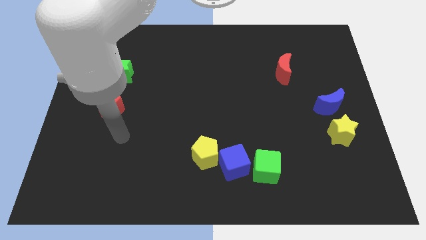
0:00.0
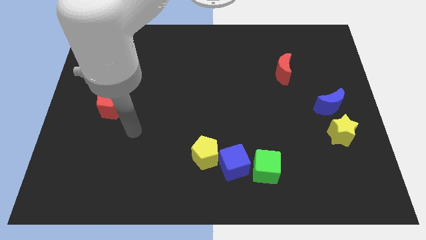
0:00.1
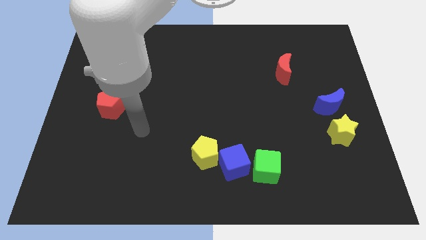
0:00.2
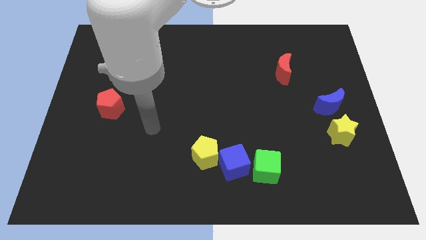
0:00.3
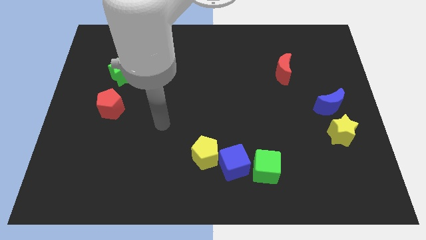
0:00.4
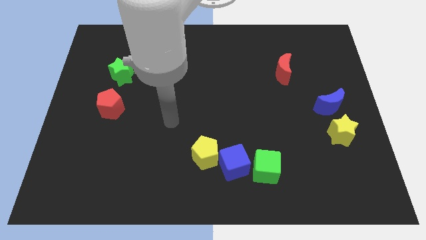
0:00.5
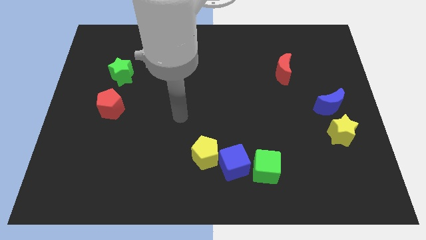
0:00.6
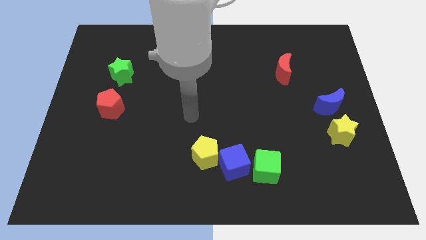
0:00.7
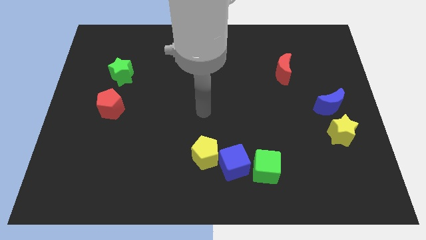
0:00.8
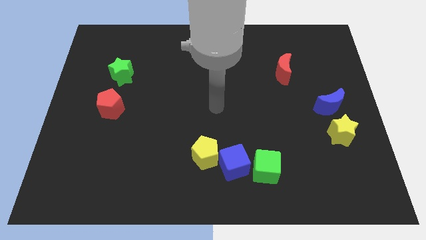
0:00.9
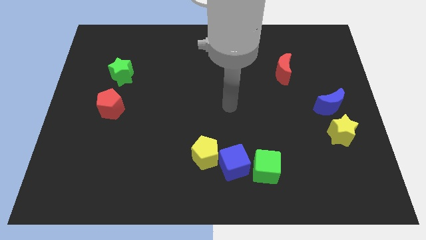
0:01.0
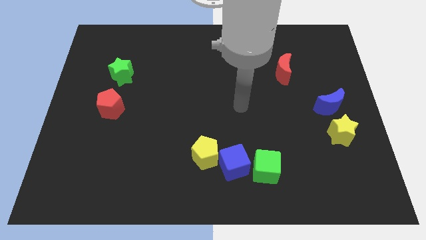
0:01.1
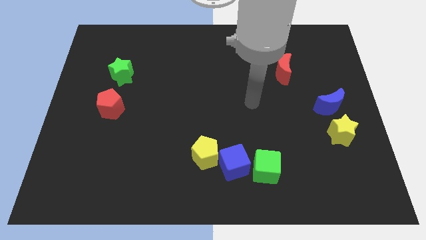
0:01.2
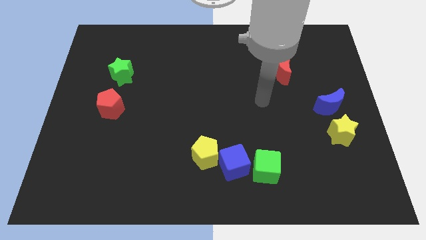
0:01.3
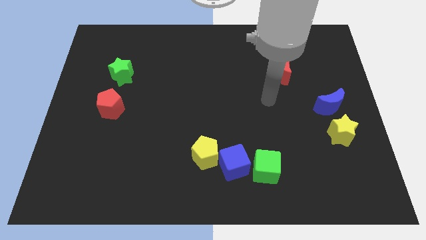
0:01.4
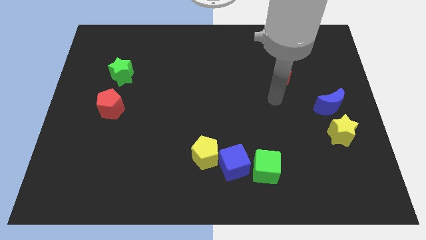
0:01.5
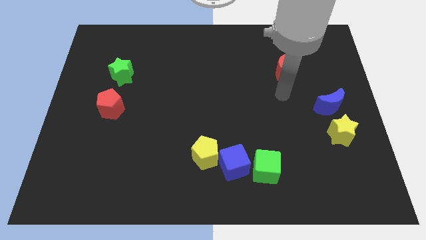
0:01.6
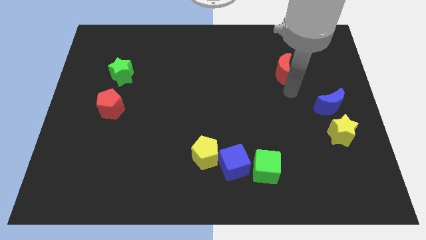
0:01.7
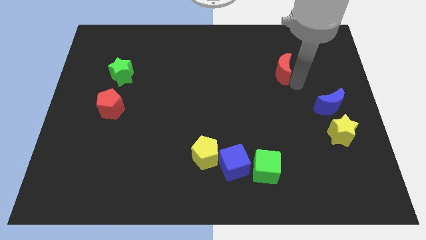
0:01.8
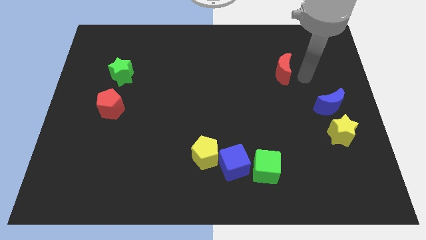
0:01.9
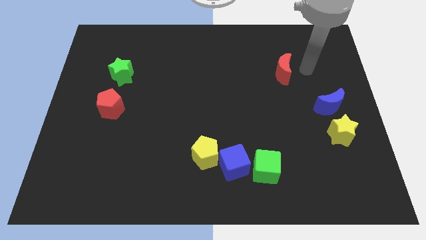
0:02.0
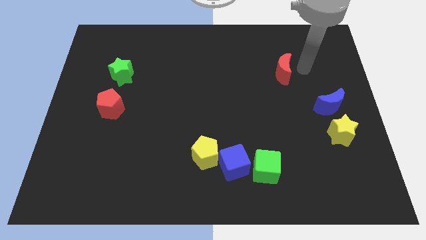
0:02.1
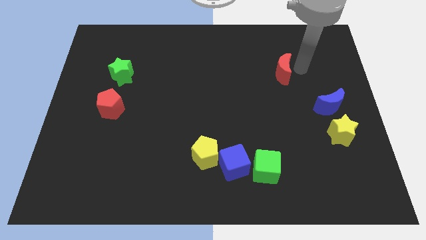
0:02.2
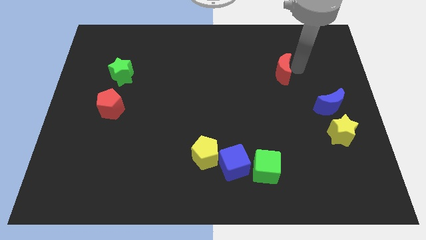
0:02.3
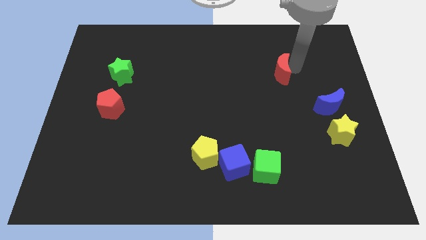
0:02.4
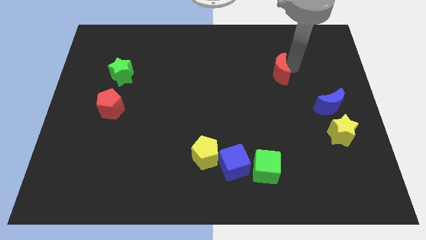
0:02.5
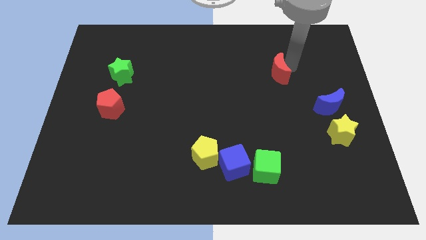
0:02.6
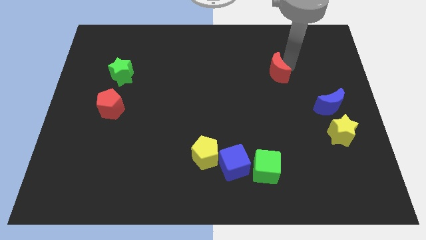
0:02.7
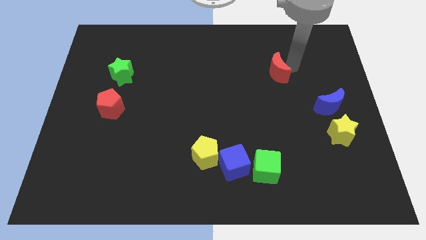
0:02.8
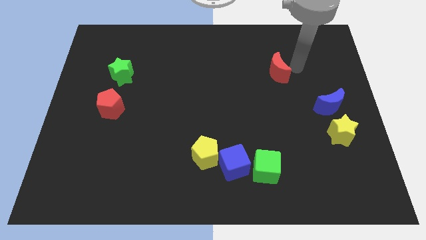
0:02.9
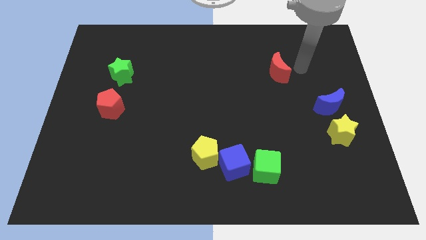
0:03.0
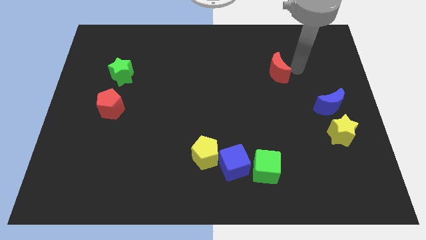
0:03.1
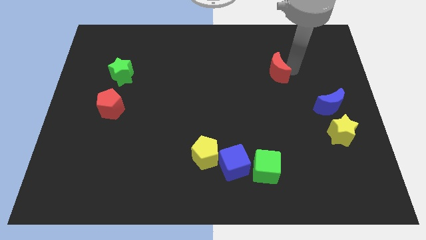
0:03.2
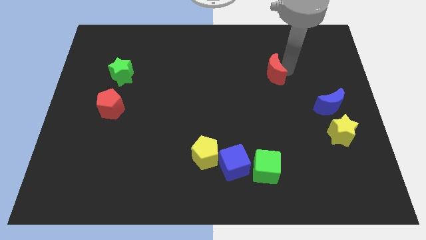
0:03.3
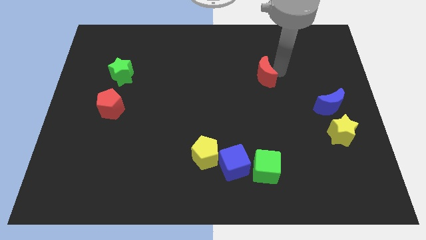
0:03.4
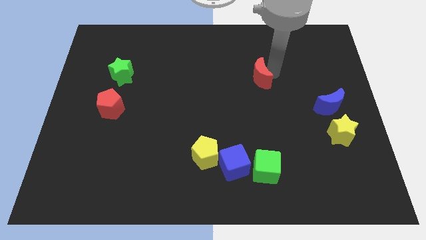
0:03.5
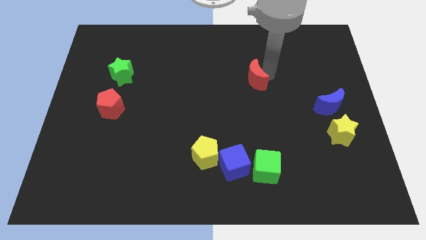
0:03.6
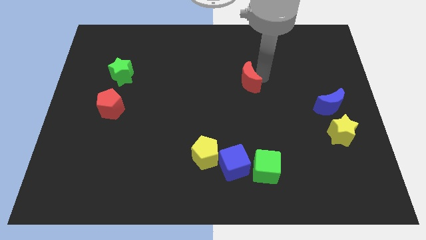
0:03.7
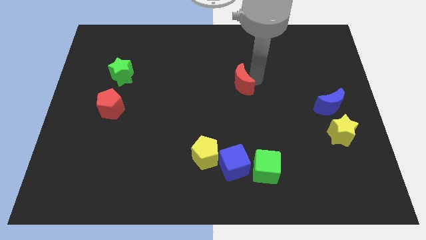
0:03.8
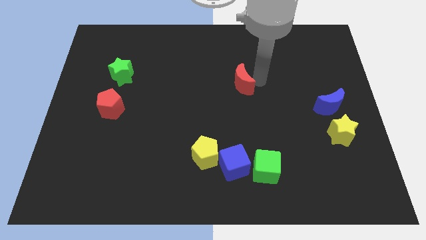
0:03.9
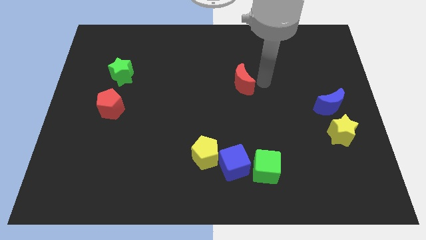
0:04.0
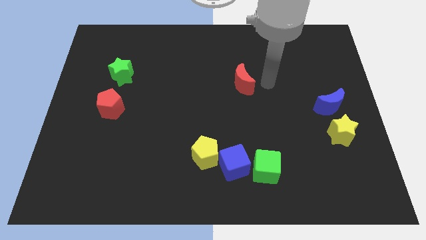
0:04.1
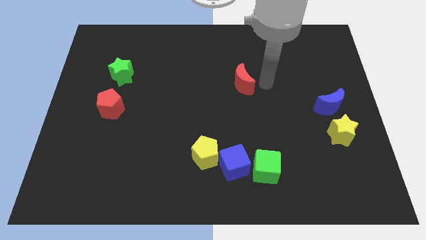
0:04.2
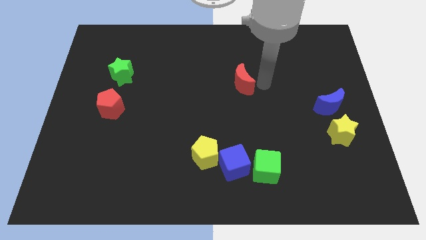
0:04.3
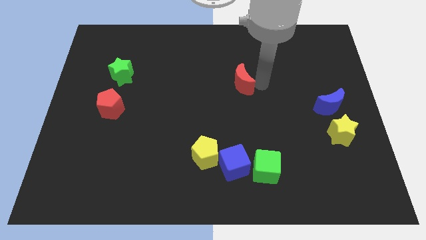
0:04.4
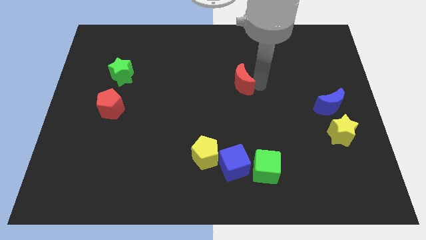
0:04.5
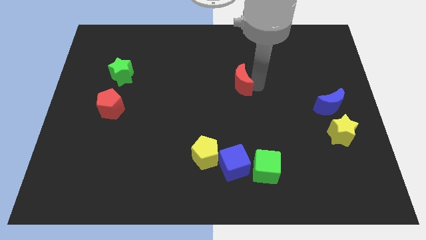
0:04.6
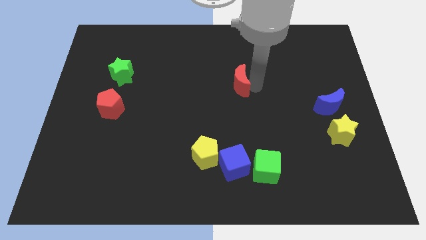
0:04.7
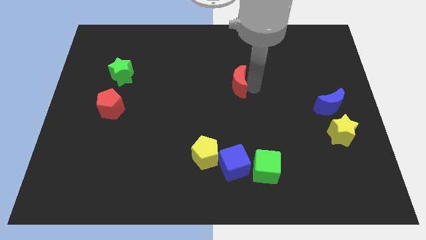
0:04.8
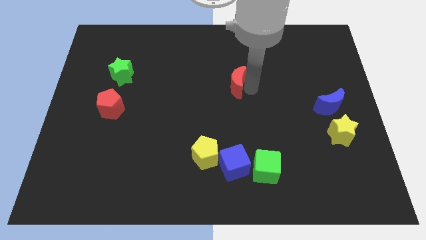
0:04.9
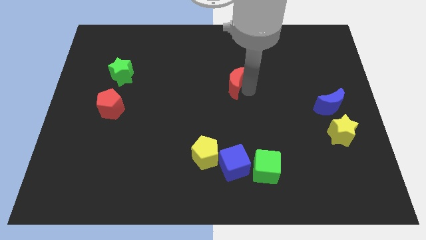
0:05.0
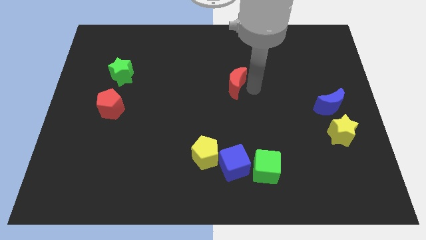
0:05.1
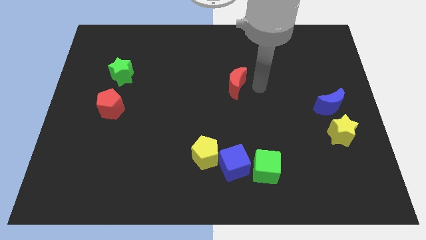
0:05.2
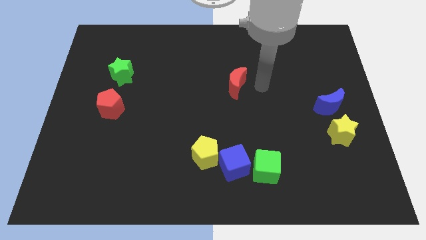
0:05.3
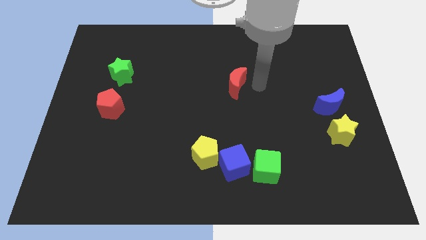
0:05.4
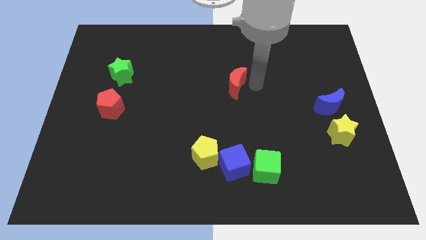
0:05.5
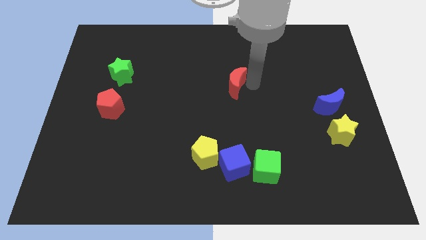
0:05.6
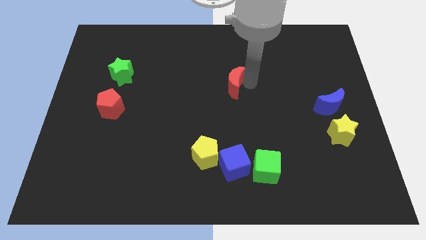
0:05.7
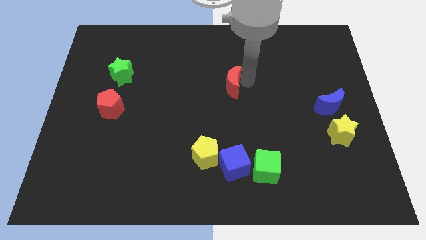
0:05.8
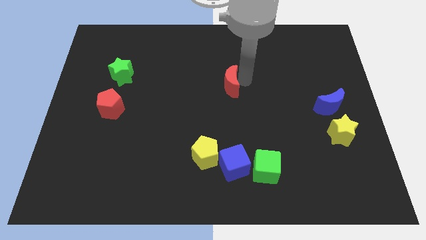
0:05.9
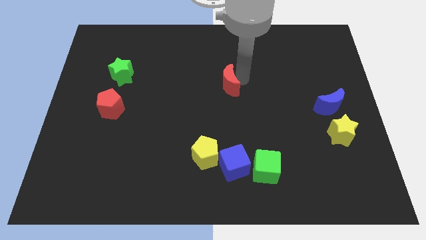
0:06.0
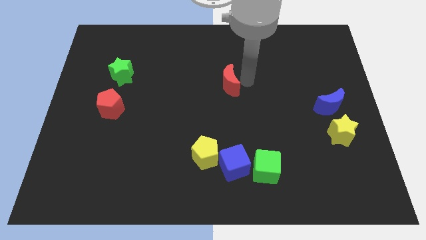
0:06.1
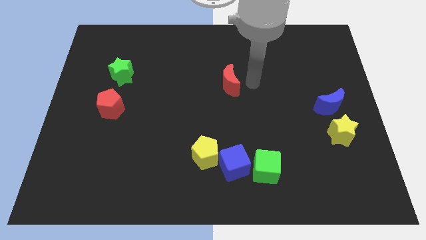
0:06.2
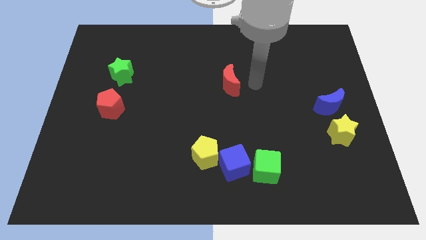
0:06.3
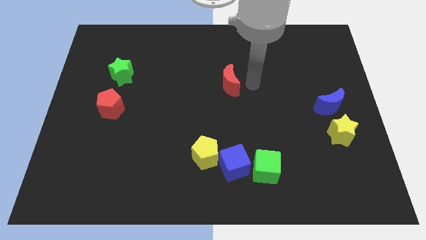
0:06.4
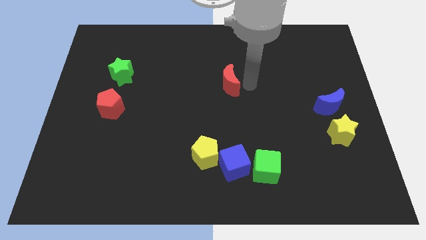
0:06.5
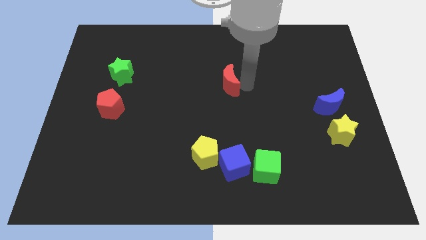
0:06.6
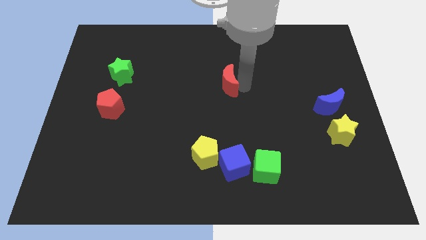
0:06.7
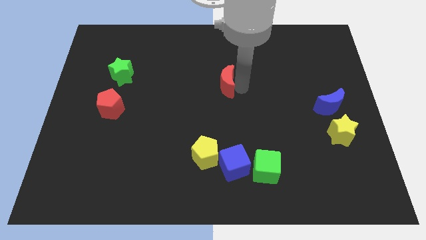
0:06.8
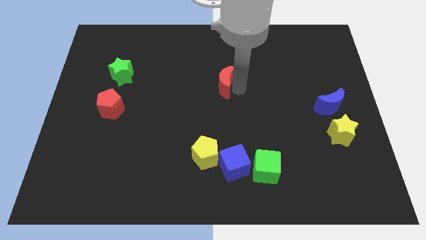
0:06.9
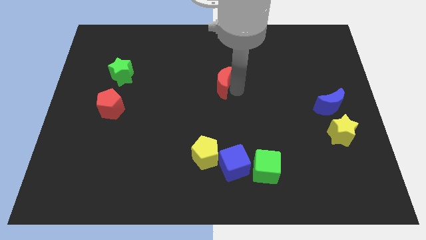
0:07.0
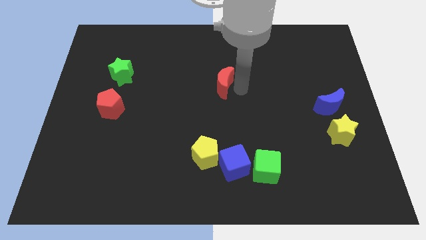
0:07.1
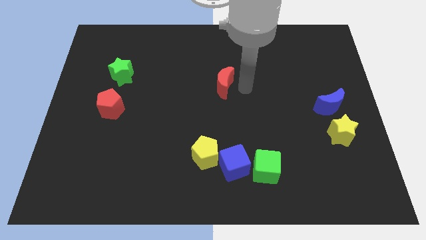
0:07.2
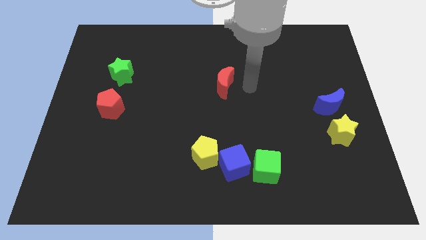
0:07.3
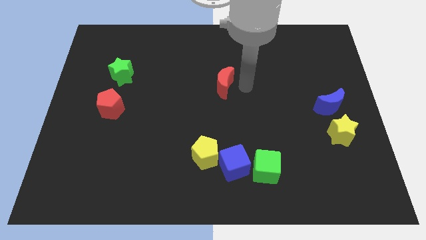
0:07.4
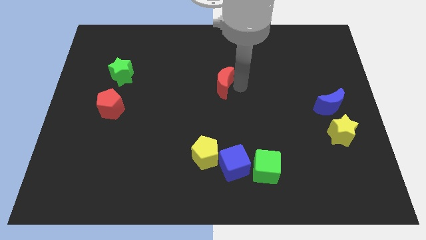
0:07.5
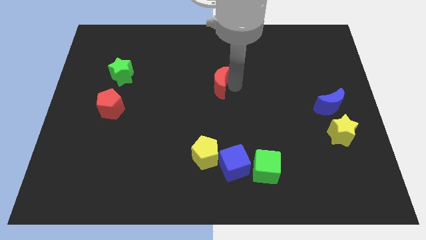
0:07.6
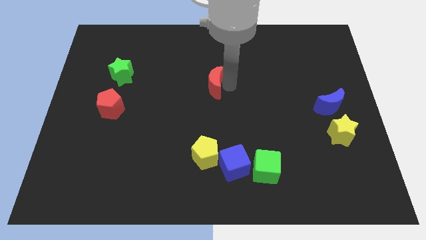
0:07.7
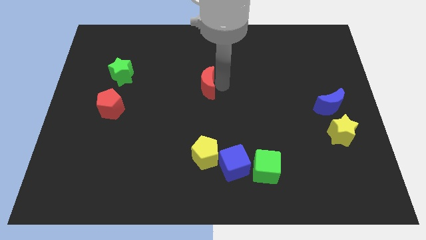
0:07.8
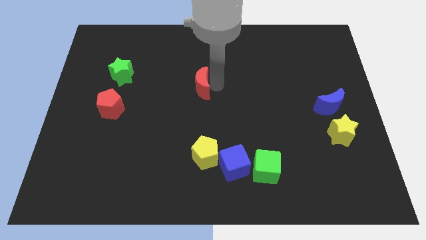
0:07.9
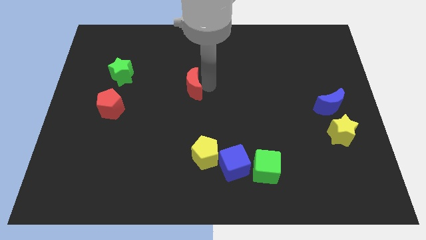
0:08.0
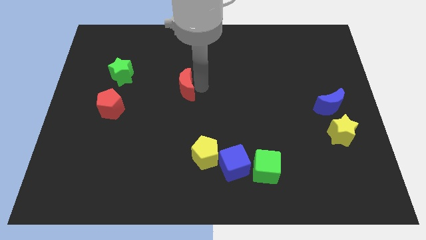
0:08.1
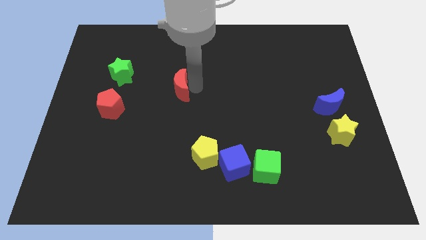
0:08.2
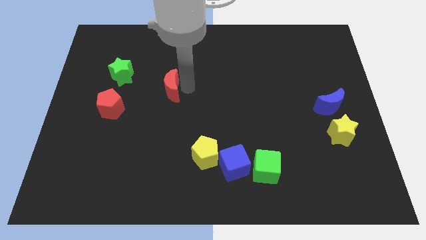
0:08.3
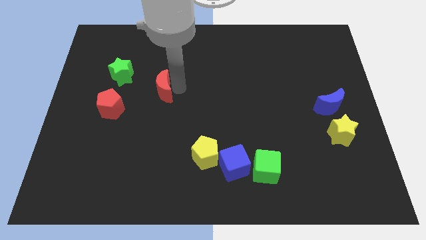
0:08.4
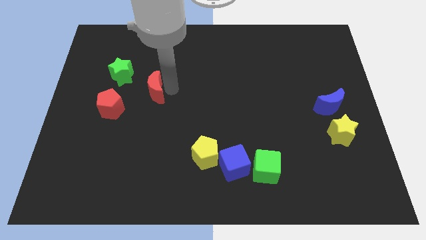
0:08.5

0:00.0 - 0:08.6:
put the red moon diagonally up and to the right of the red pentagon
